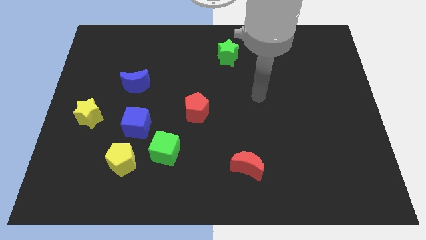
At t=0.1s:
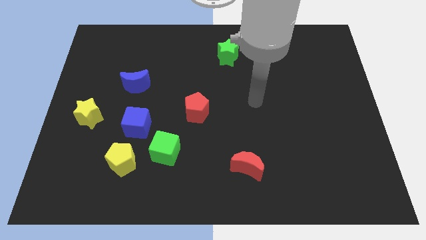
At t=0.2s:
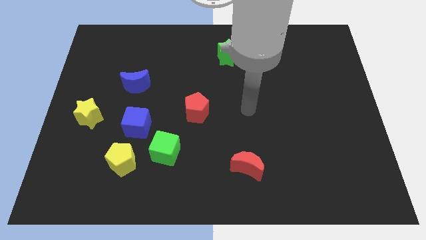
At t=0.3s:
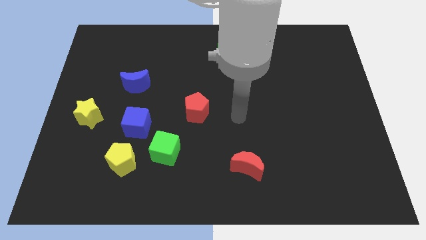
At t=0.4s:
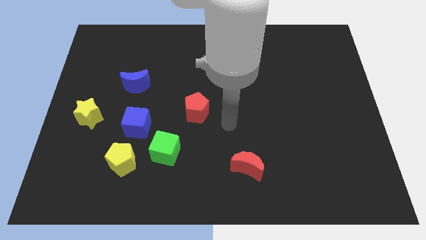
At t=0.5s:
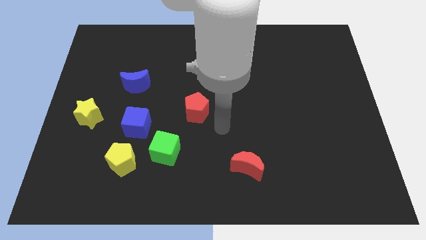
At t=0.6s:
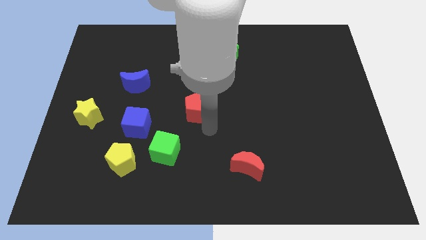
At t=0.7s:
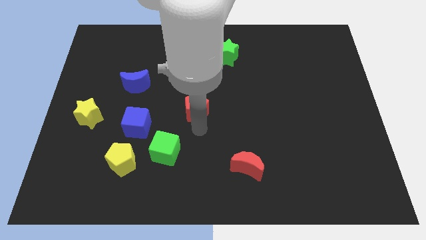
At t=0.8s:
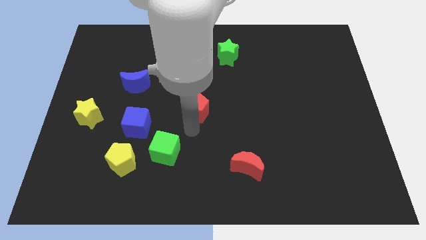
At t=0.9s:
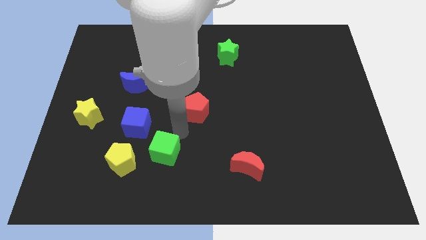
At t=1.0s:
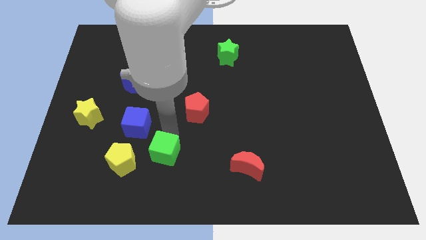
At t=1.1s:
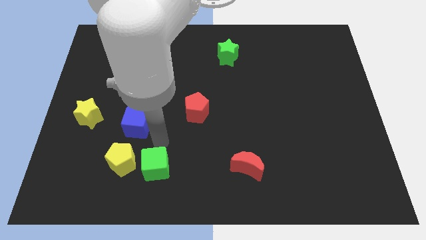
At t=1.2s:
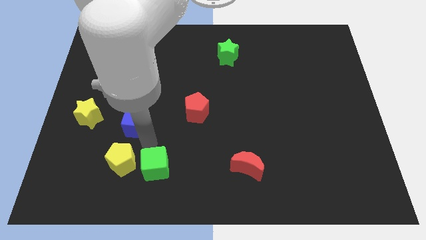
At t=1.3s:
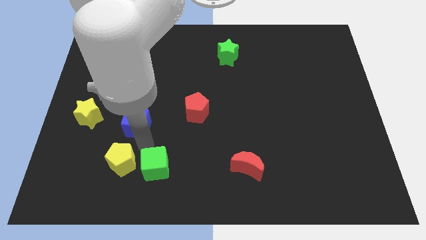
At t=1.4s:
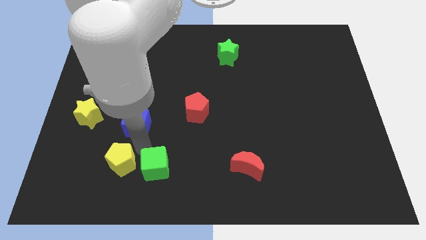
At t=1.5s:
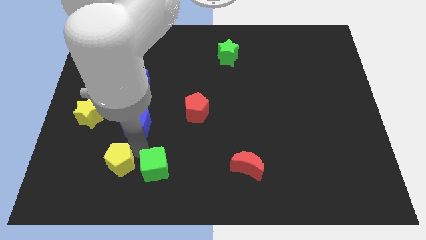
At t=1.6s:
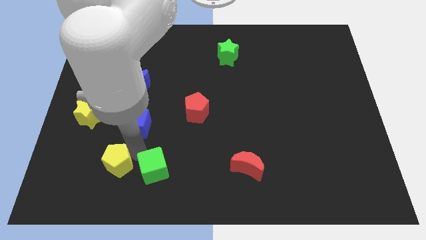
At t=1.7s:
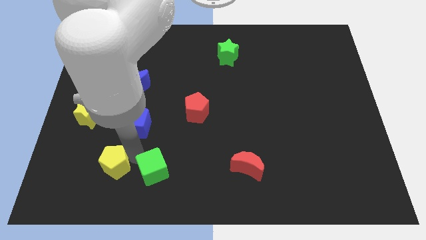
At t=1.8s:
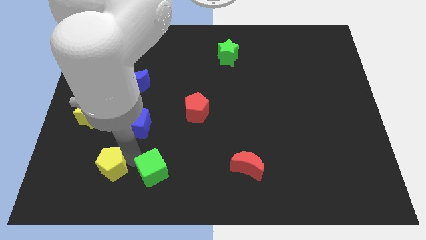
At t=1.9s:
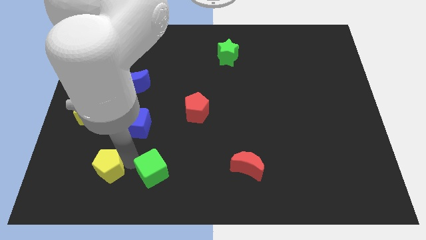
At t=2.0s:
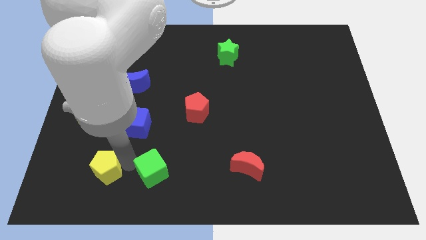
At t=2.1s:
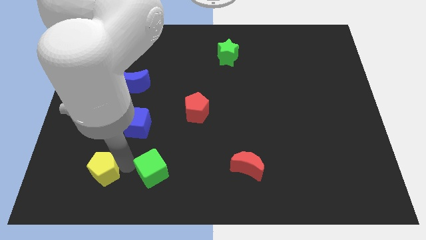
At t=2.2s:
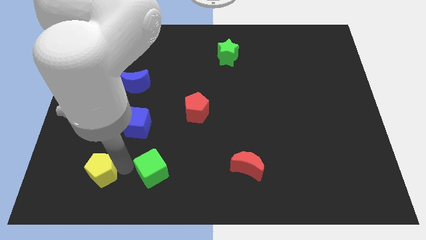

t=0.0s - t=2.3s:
move the yellow pentagon away from the green cube and blue cube

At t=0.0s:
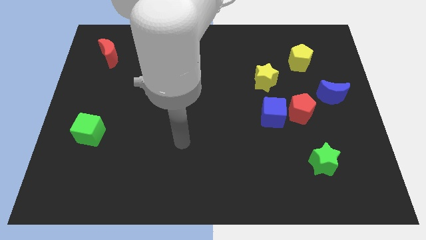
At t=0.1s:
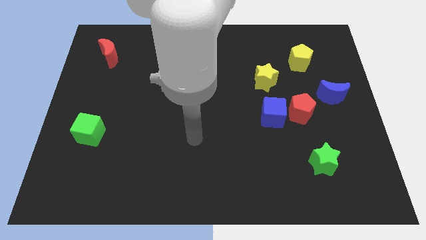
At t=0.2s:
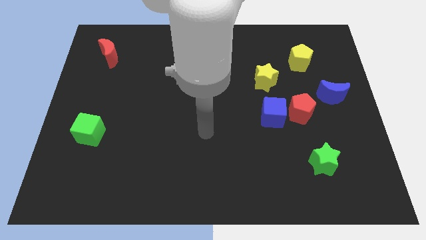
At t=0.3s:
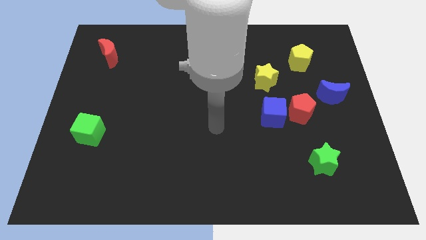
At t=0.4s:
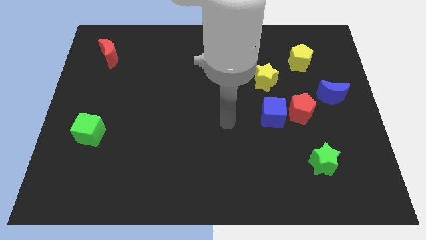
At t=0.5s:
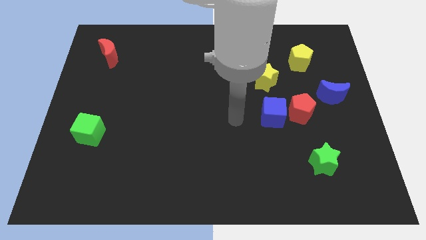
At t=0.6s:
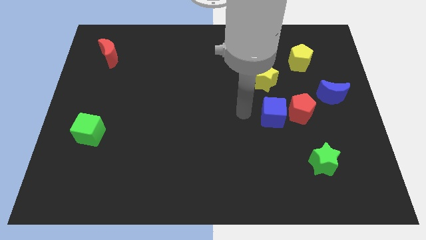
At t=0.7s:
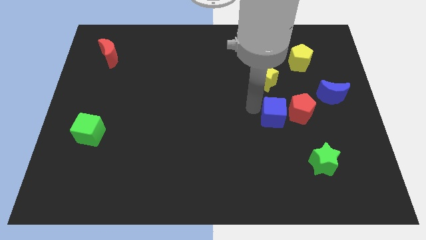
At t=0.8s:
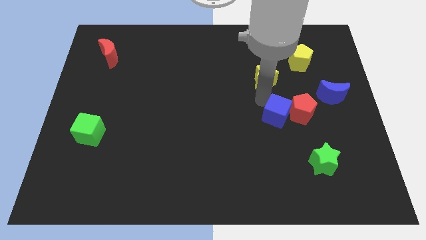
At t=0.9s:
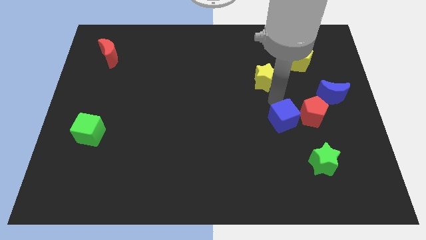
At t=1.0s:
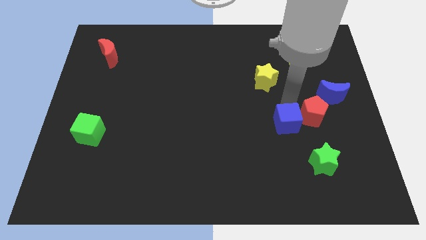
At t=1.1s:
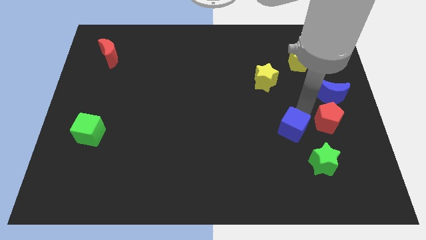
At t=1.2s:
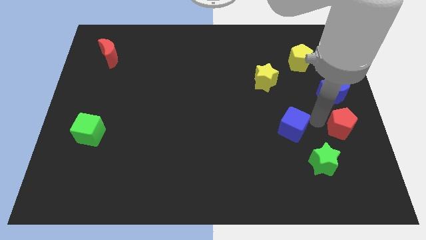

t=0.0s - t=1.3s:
move the blue cube away from the red pentagon

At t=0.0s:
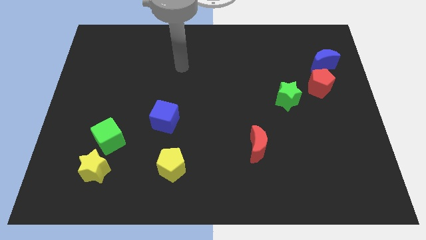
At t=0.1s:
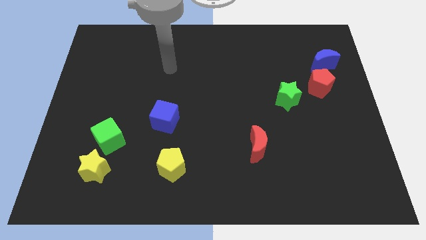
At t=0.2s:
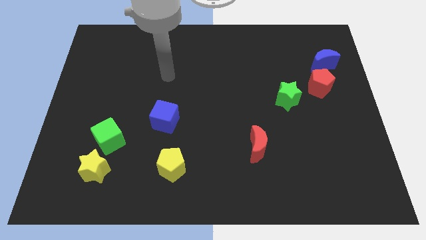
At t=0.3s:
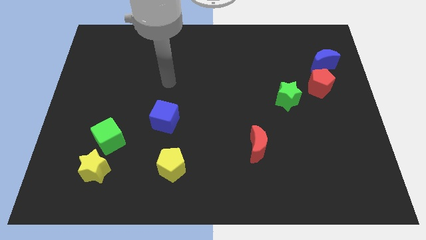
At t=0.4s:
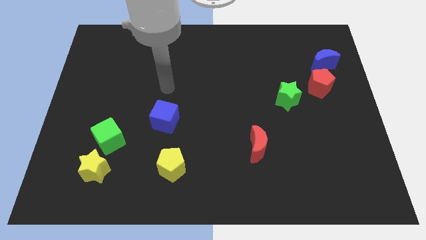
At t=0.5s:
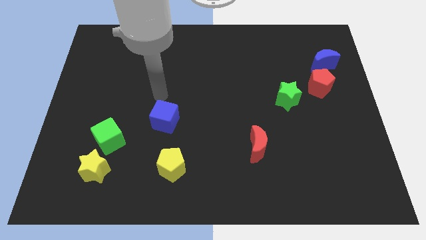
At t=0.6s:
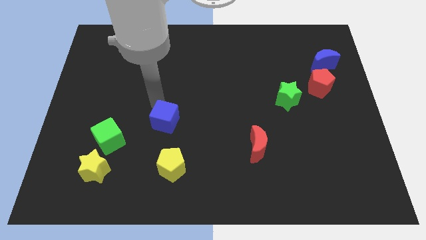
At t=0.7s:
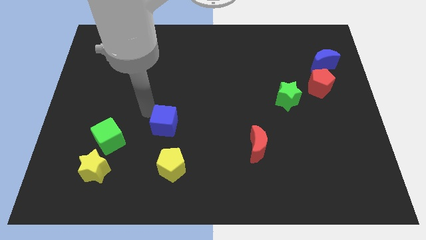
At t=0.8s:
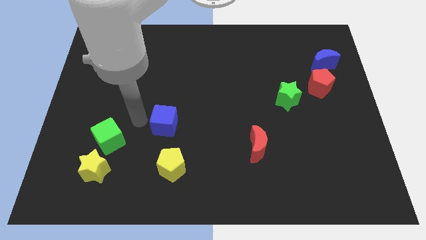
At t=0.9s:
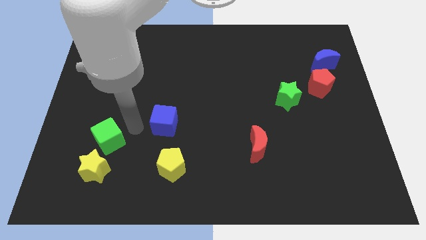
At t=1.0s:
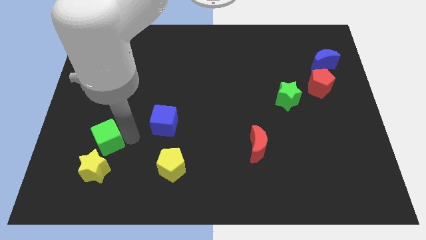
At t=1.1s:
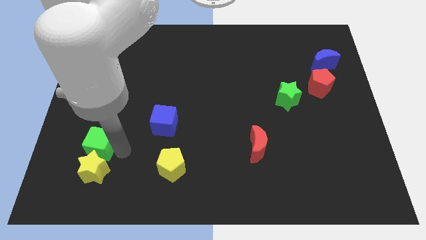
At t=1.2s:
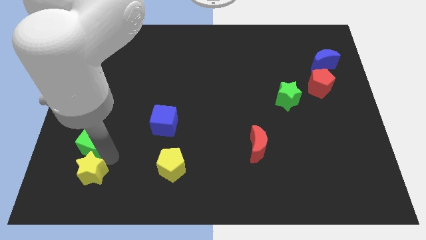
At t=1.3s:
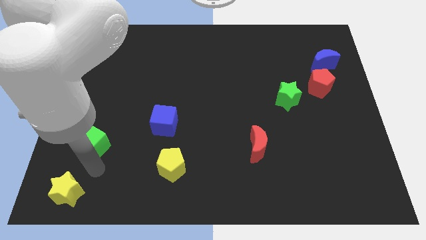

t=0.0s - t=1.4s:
pull the green cube apart from the yellow star

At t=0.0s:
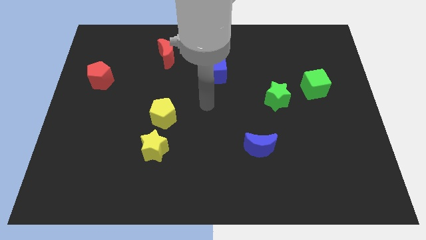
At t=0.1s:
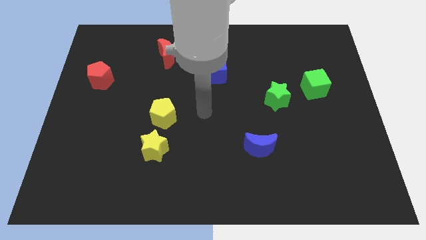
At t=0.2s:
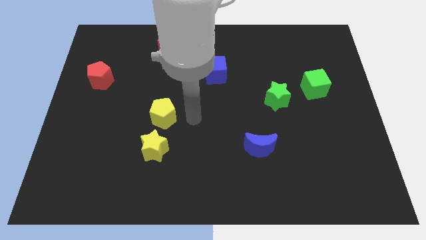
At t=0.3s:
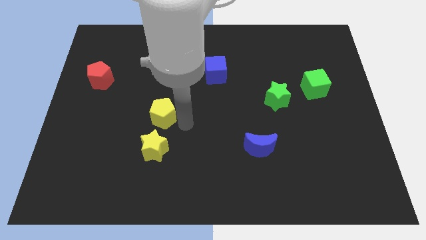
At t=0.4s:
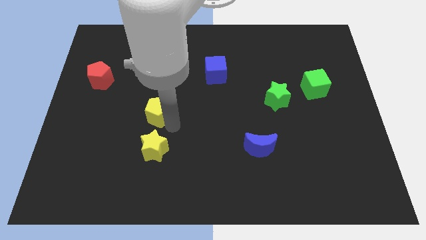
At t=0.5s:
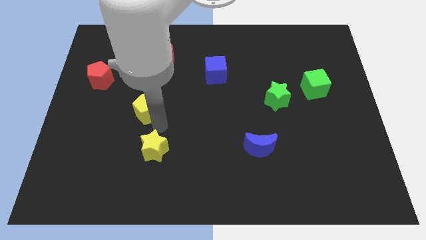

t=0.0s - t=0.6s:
separate the yellow star from the yellow pentagon

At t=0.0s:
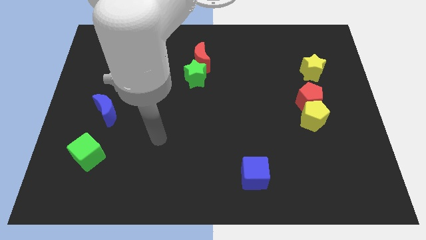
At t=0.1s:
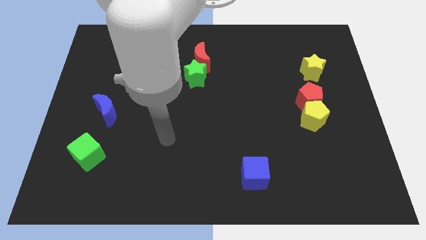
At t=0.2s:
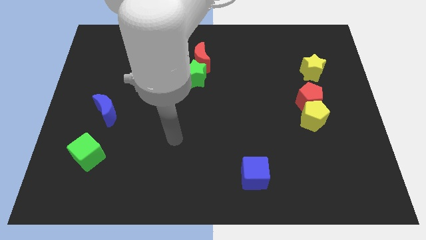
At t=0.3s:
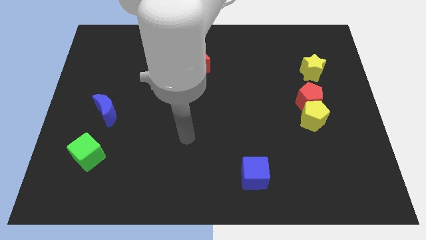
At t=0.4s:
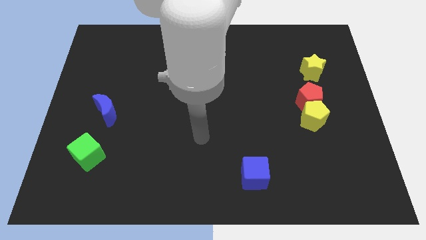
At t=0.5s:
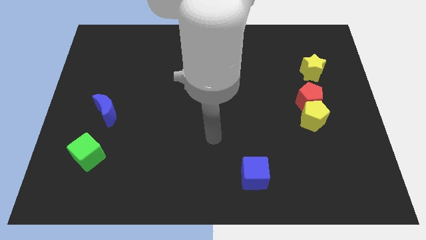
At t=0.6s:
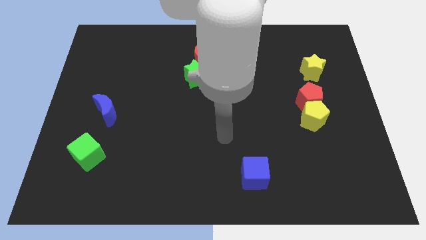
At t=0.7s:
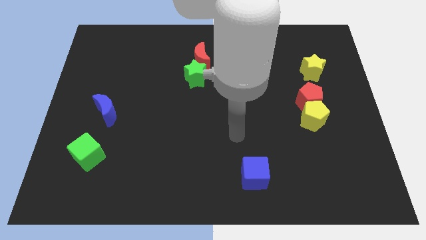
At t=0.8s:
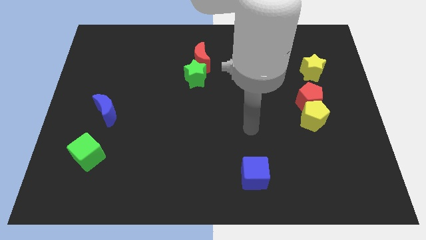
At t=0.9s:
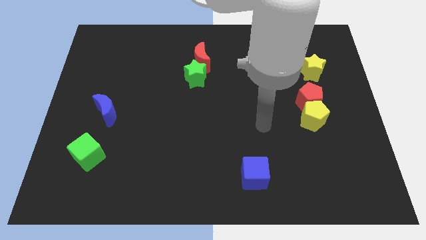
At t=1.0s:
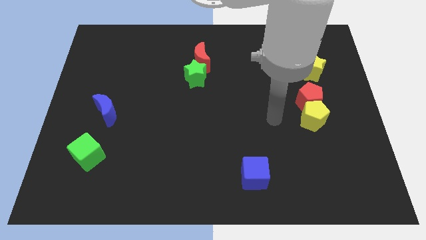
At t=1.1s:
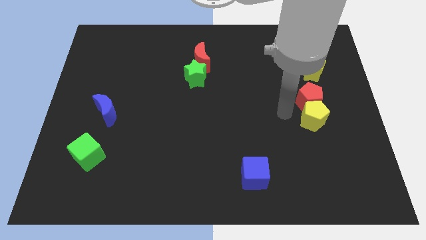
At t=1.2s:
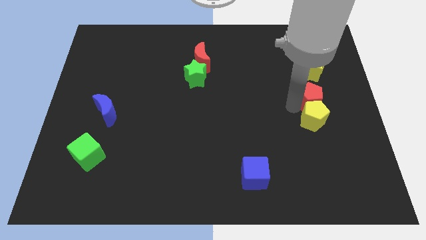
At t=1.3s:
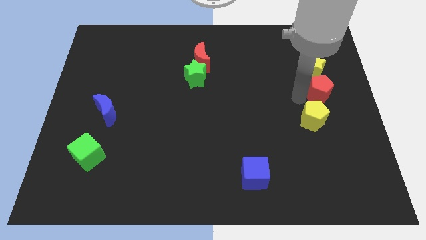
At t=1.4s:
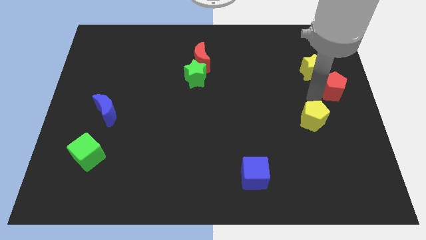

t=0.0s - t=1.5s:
separate the yellow pentagon from the red pentagon

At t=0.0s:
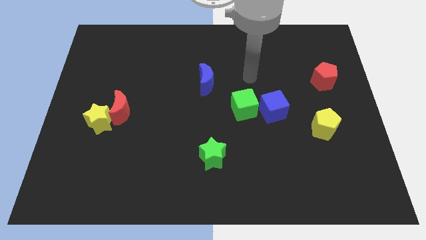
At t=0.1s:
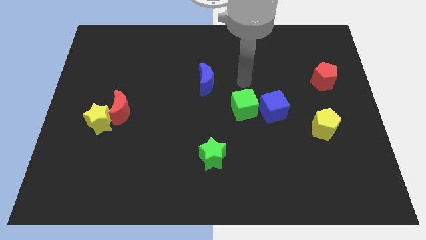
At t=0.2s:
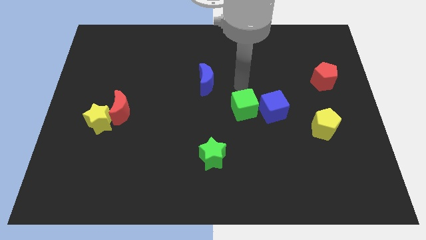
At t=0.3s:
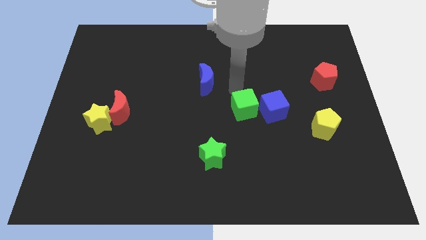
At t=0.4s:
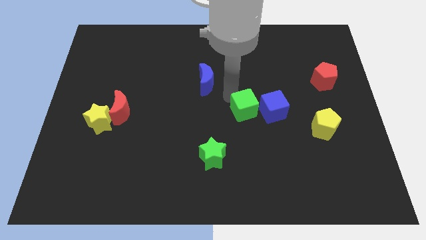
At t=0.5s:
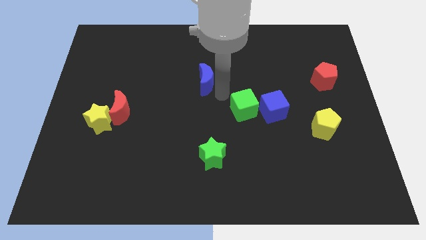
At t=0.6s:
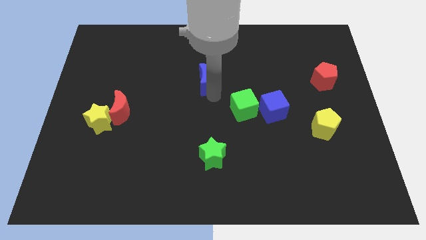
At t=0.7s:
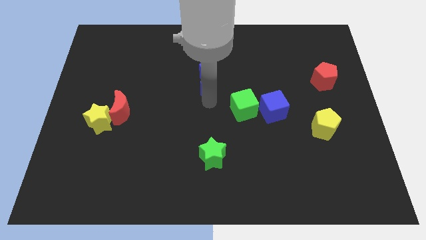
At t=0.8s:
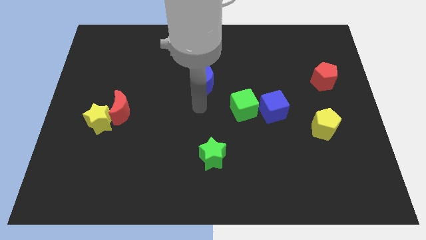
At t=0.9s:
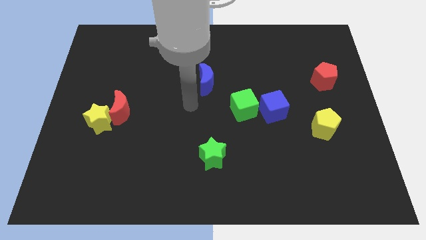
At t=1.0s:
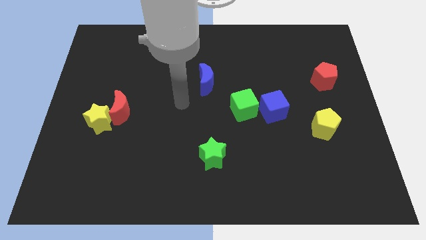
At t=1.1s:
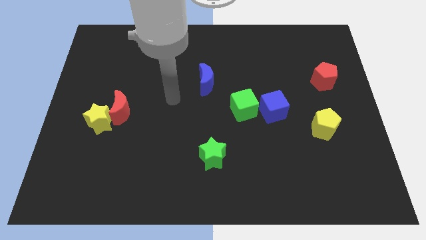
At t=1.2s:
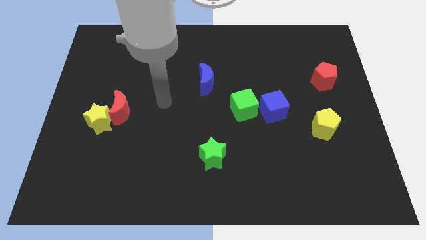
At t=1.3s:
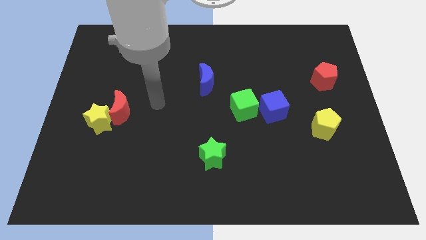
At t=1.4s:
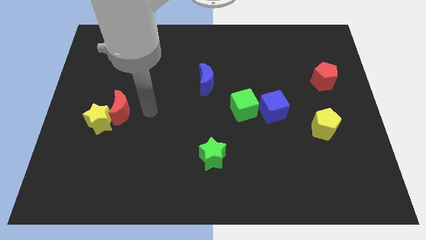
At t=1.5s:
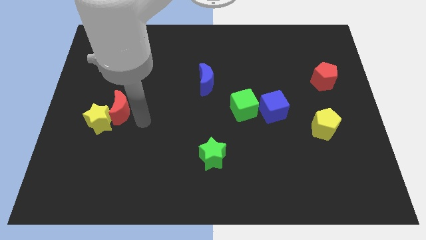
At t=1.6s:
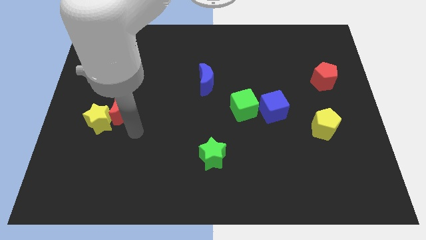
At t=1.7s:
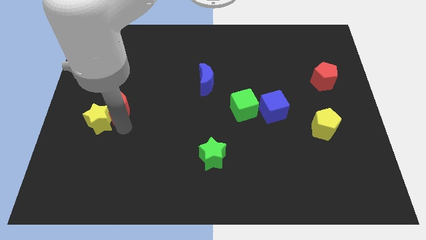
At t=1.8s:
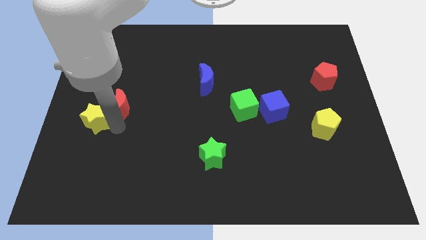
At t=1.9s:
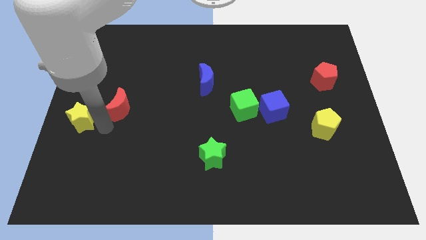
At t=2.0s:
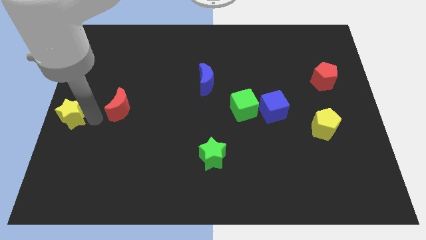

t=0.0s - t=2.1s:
move the red moon away from the yellow star

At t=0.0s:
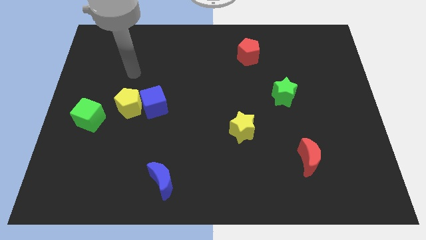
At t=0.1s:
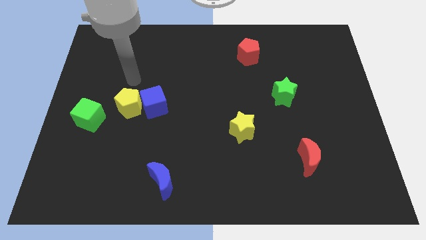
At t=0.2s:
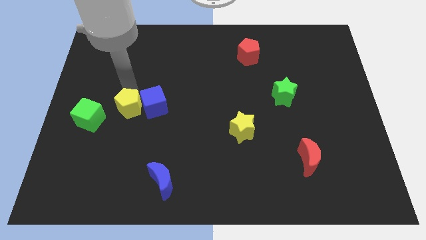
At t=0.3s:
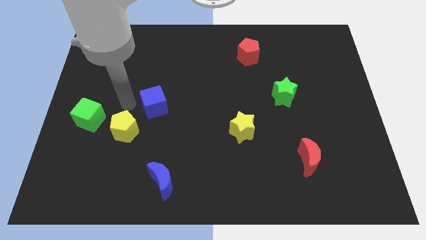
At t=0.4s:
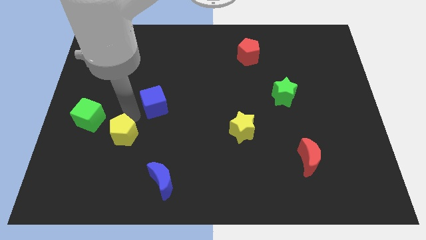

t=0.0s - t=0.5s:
pull the blue cube apart from the yellow pentagon
